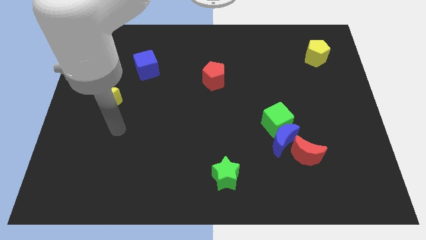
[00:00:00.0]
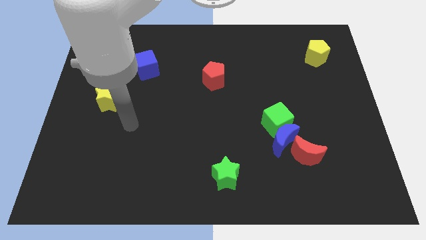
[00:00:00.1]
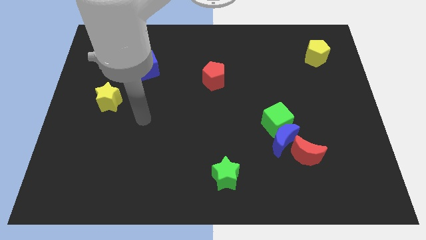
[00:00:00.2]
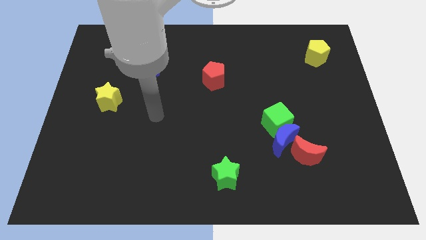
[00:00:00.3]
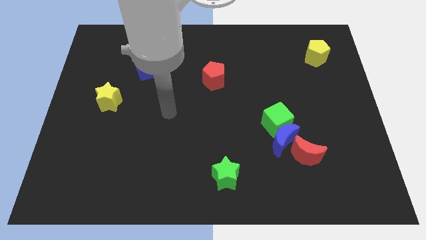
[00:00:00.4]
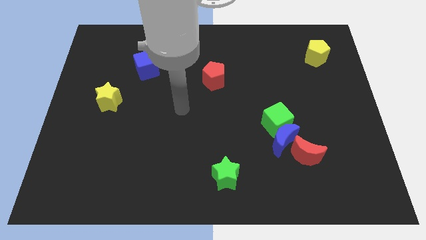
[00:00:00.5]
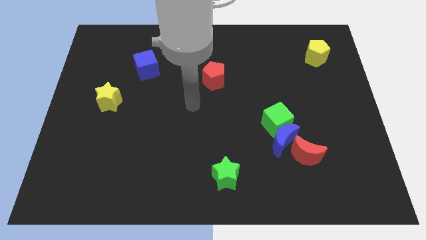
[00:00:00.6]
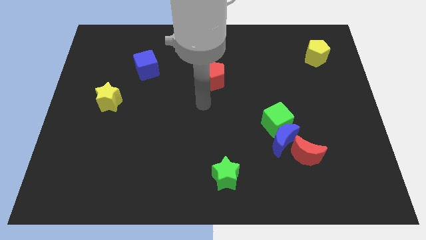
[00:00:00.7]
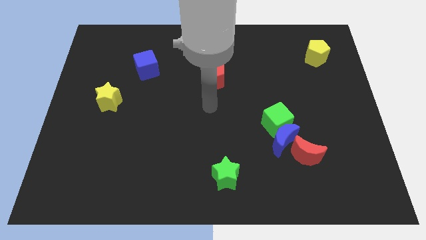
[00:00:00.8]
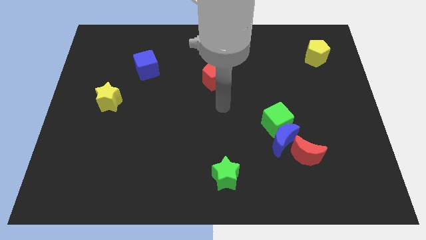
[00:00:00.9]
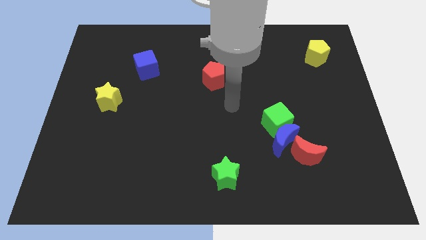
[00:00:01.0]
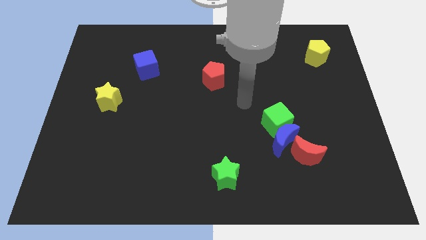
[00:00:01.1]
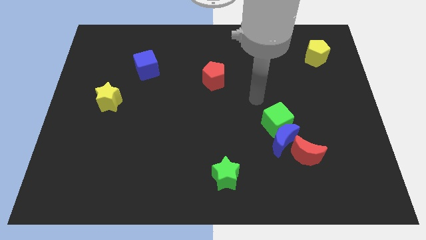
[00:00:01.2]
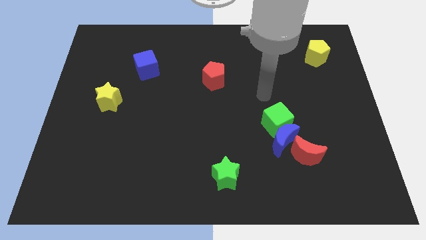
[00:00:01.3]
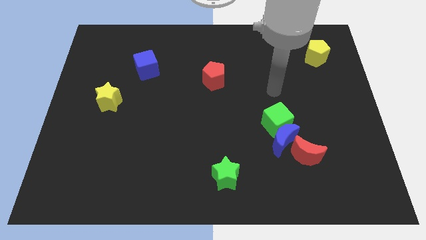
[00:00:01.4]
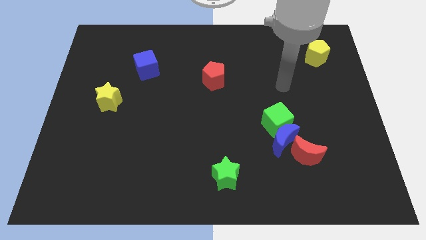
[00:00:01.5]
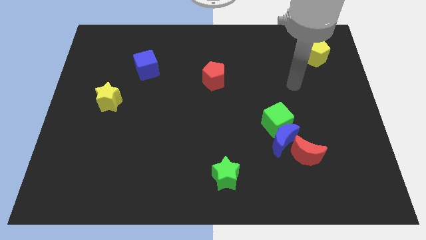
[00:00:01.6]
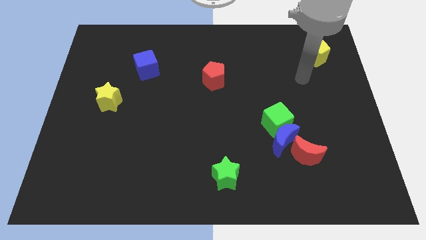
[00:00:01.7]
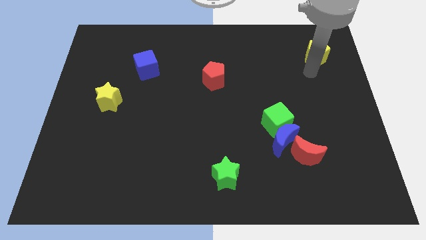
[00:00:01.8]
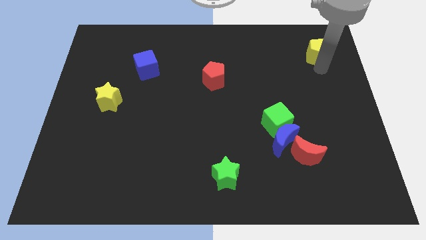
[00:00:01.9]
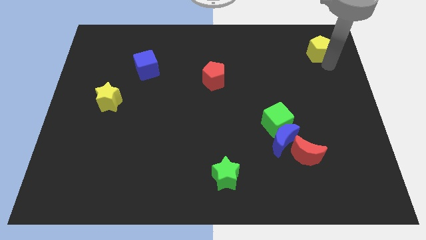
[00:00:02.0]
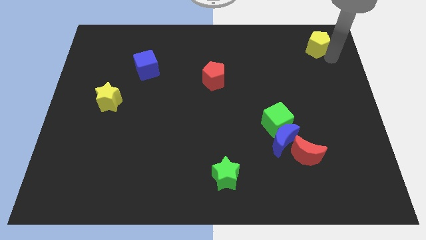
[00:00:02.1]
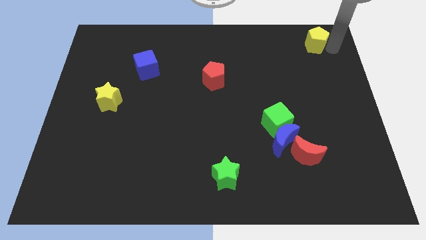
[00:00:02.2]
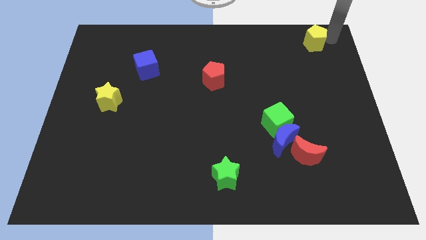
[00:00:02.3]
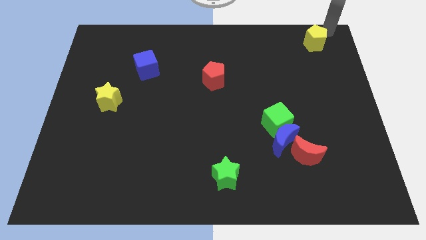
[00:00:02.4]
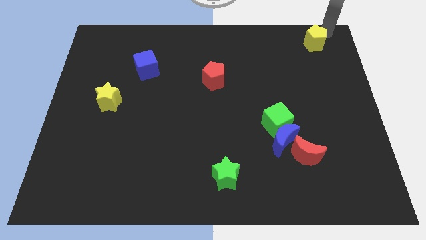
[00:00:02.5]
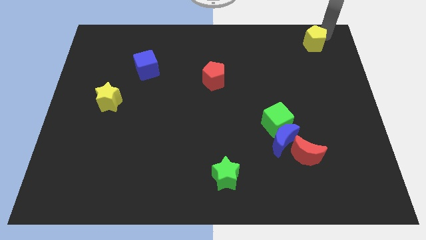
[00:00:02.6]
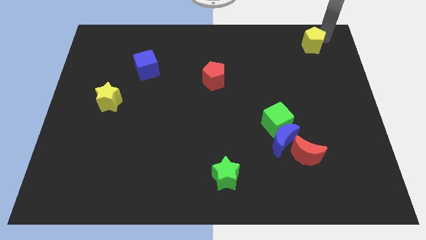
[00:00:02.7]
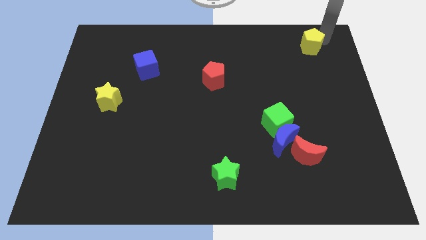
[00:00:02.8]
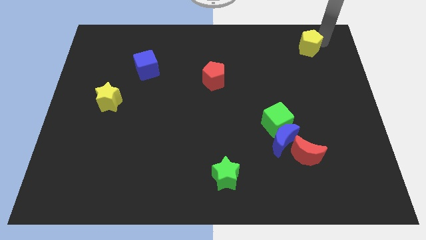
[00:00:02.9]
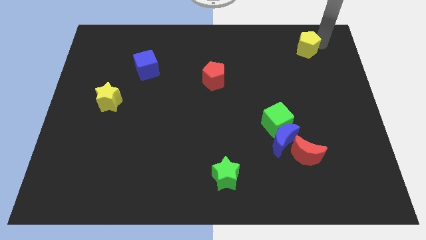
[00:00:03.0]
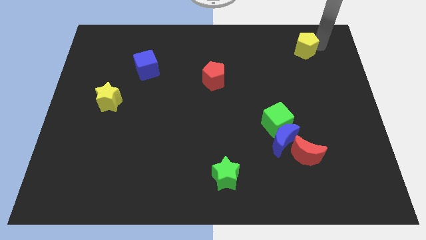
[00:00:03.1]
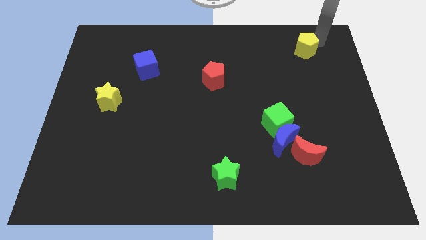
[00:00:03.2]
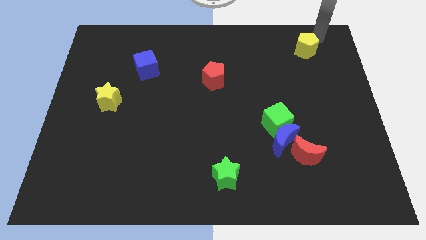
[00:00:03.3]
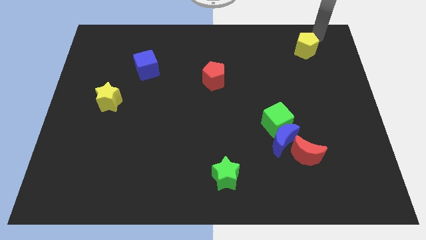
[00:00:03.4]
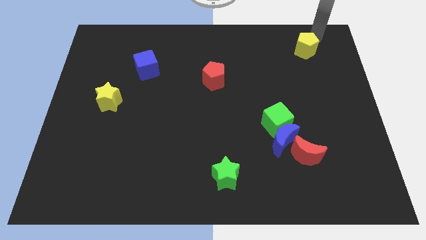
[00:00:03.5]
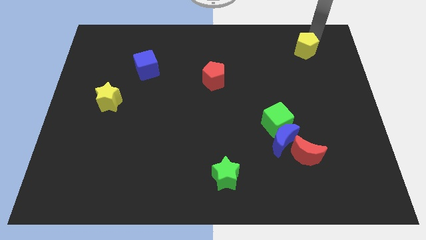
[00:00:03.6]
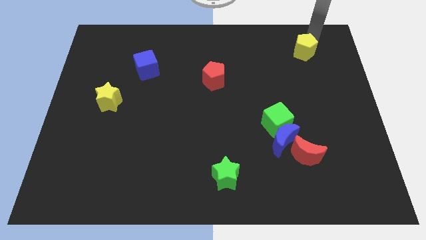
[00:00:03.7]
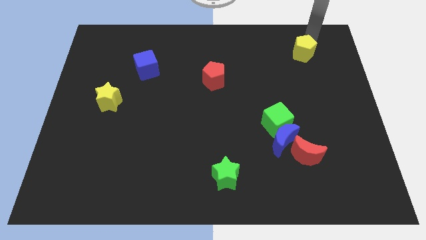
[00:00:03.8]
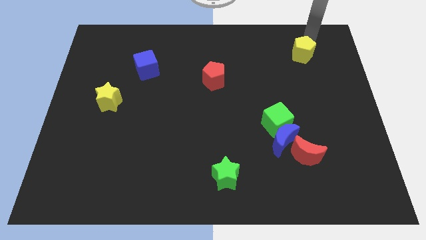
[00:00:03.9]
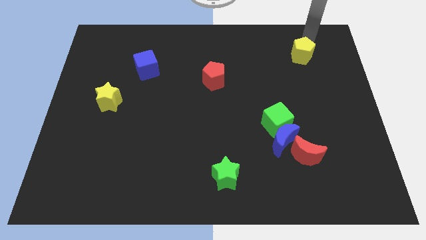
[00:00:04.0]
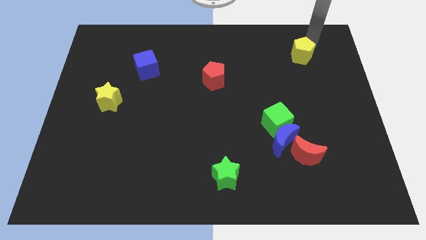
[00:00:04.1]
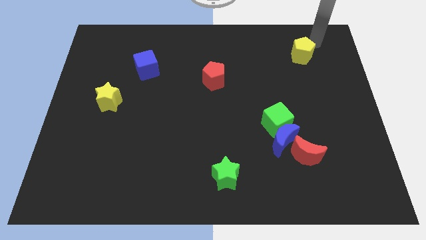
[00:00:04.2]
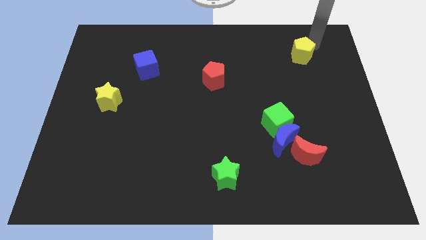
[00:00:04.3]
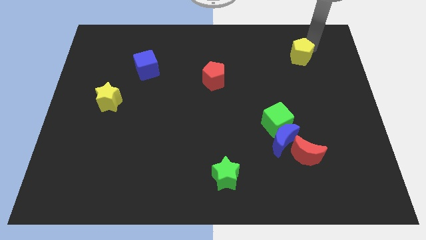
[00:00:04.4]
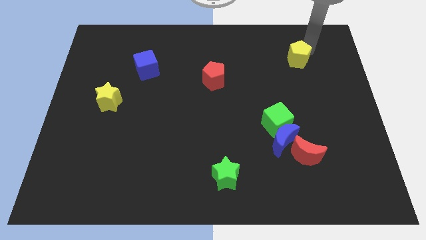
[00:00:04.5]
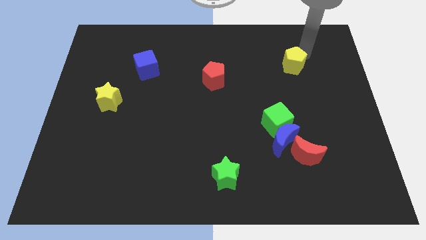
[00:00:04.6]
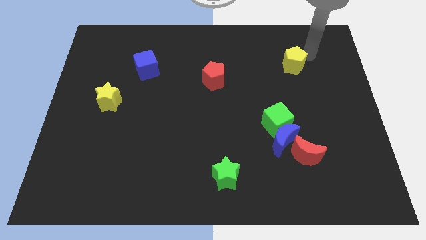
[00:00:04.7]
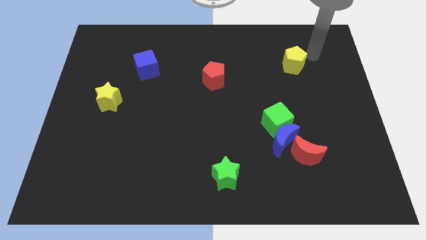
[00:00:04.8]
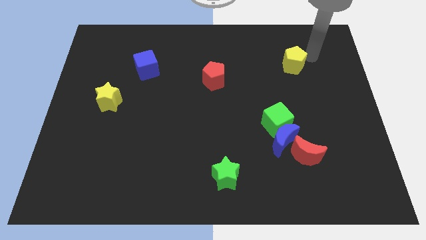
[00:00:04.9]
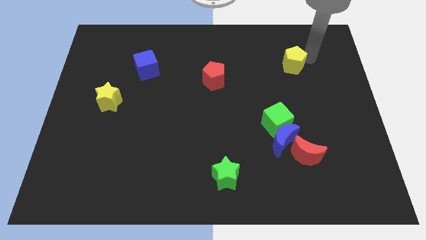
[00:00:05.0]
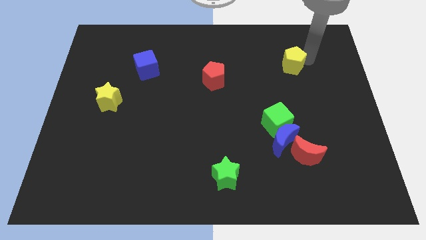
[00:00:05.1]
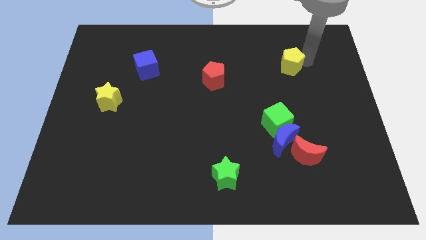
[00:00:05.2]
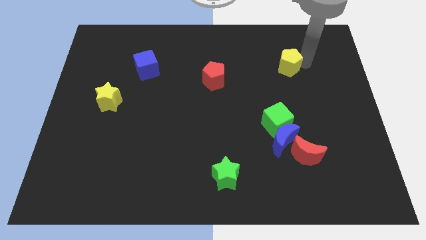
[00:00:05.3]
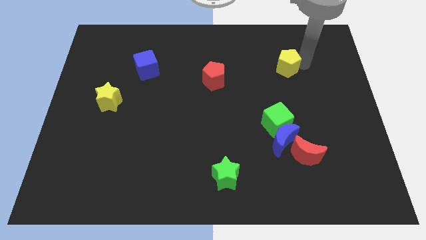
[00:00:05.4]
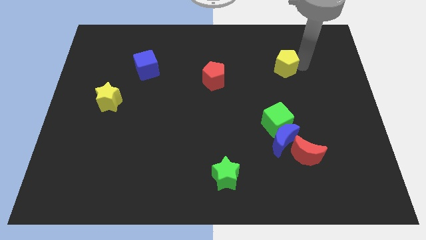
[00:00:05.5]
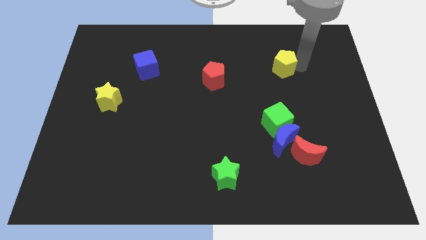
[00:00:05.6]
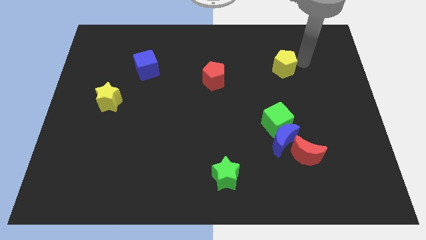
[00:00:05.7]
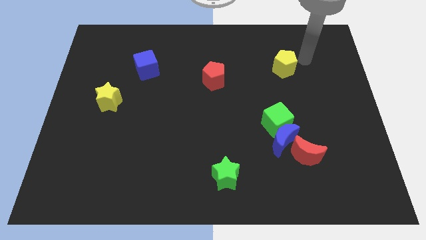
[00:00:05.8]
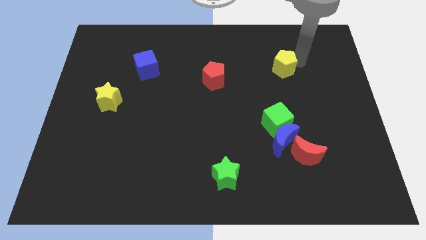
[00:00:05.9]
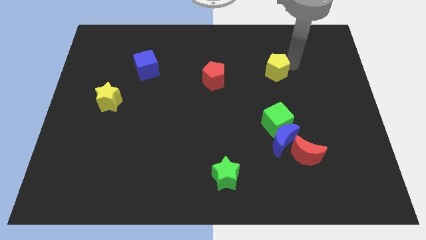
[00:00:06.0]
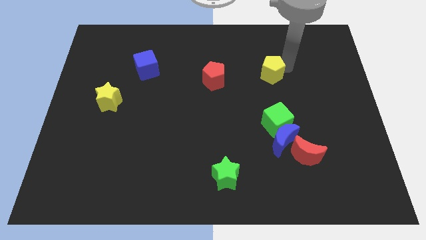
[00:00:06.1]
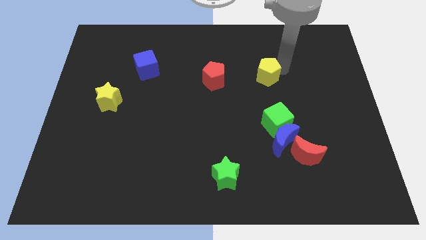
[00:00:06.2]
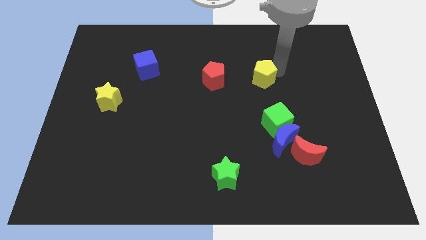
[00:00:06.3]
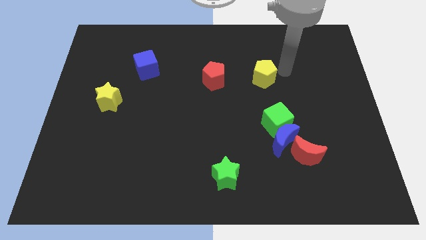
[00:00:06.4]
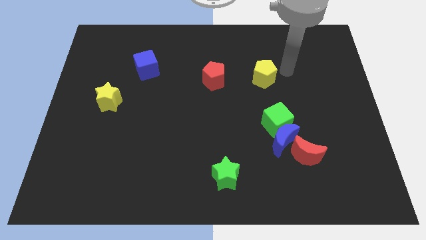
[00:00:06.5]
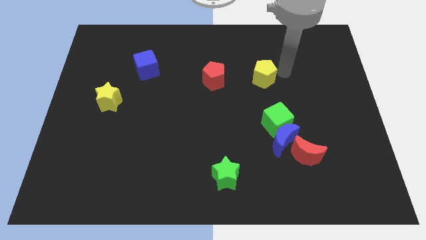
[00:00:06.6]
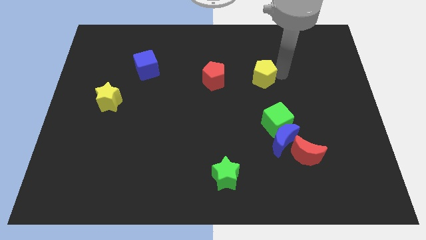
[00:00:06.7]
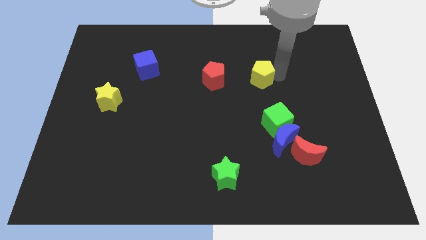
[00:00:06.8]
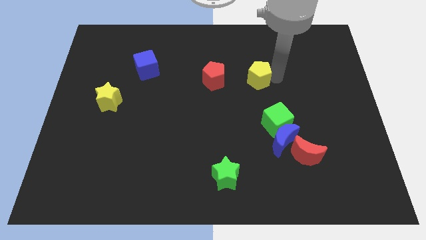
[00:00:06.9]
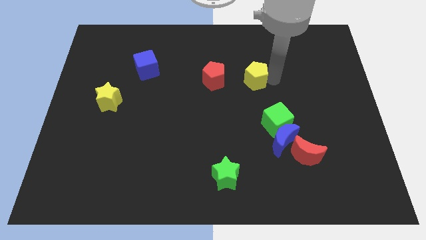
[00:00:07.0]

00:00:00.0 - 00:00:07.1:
push the yellow pentagon to the center of the board
